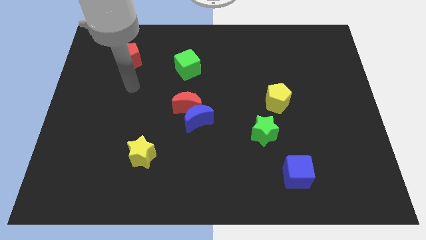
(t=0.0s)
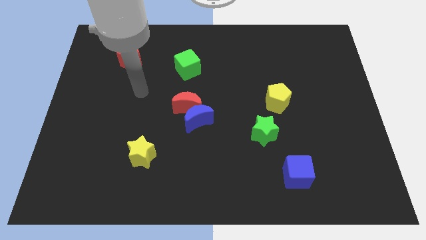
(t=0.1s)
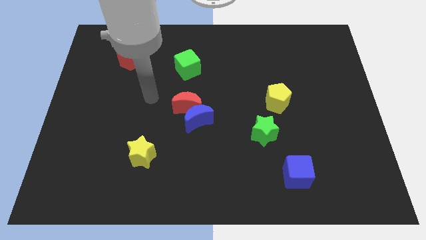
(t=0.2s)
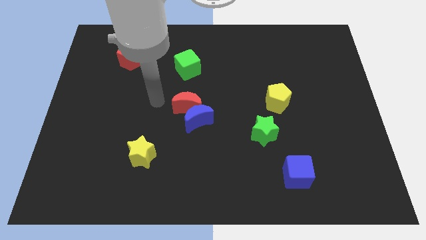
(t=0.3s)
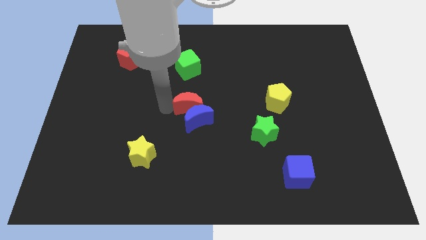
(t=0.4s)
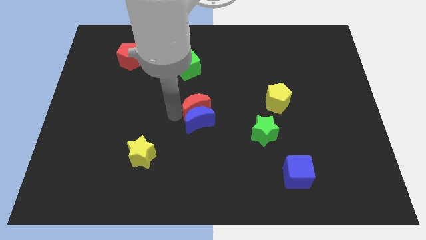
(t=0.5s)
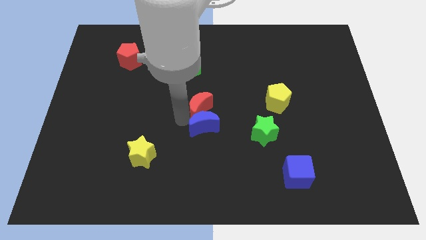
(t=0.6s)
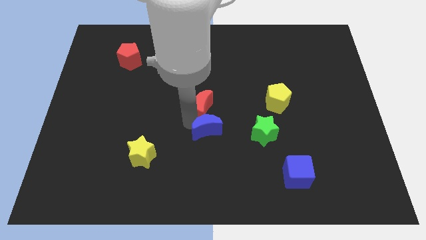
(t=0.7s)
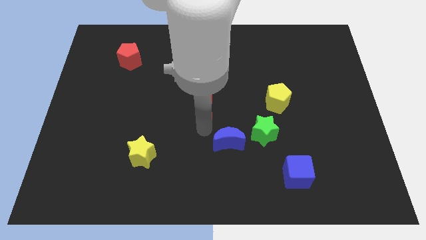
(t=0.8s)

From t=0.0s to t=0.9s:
move the red moon away from the blue moon

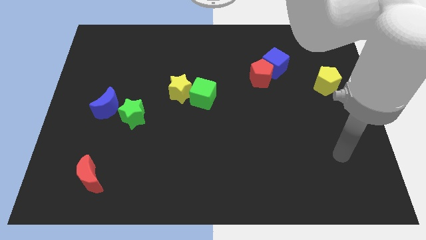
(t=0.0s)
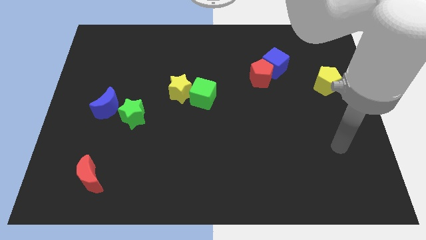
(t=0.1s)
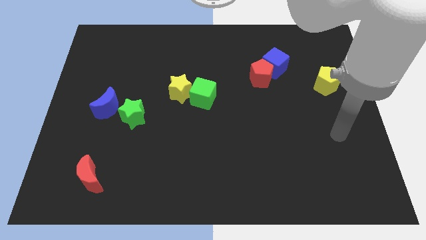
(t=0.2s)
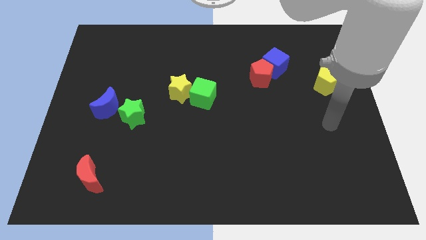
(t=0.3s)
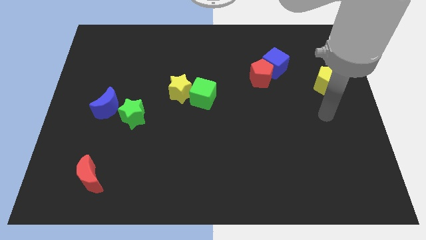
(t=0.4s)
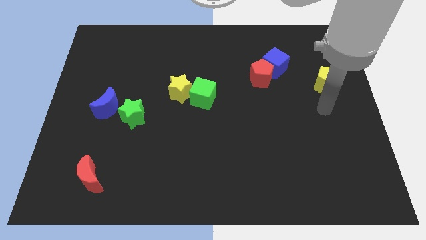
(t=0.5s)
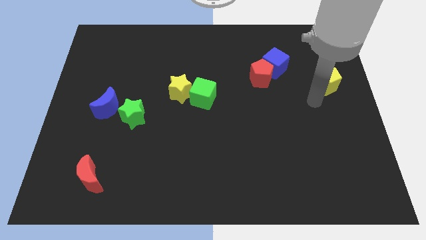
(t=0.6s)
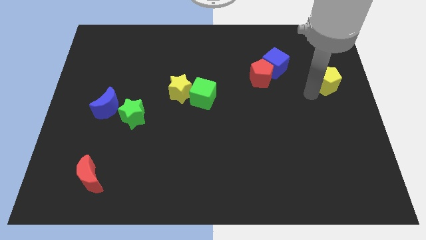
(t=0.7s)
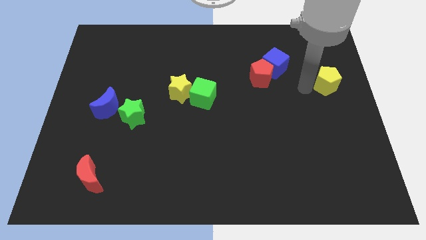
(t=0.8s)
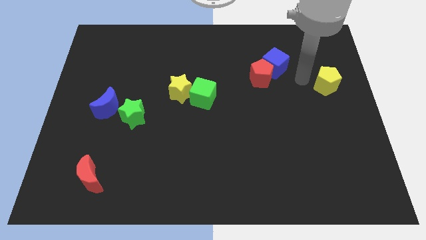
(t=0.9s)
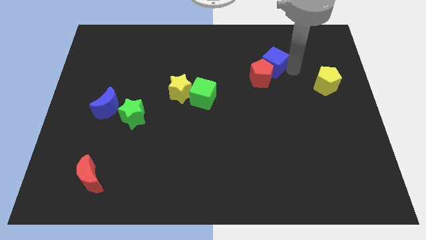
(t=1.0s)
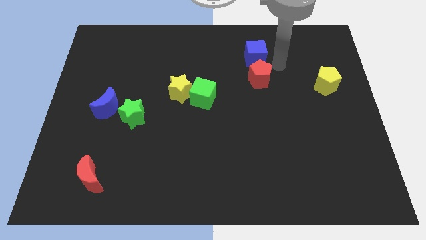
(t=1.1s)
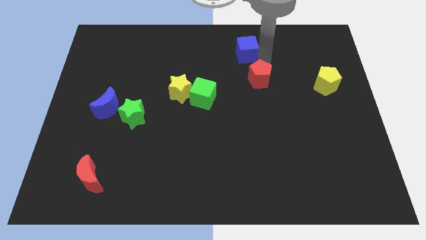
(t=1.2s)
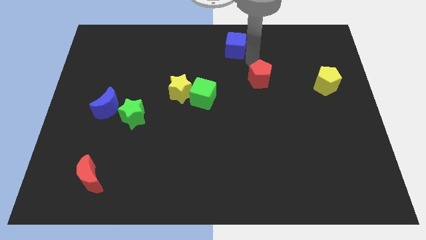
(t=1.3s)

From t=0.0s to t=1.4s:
move the red pentagon away from the blue cube

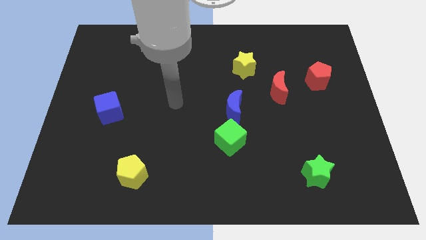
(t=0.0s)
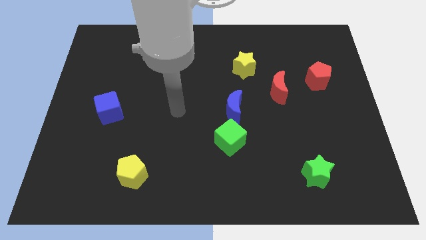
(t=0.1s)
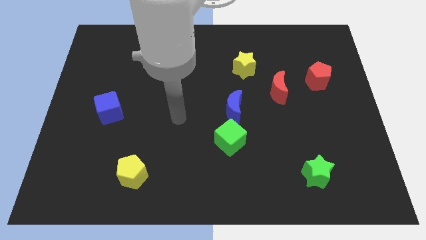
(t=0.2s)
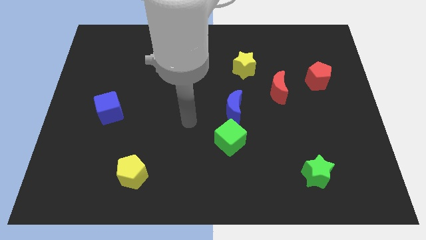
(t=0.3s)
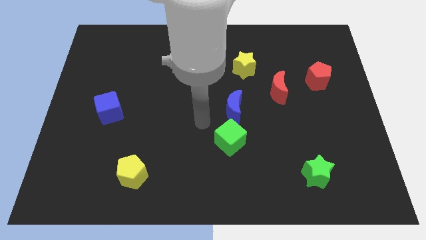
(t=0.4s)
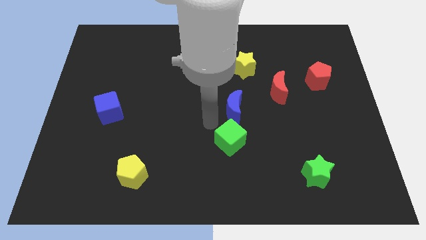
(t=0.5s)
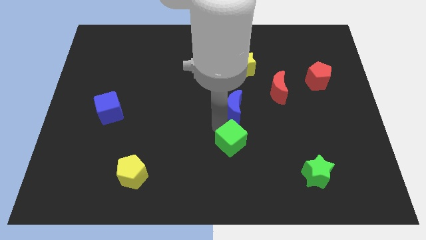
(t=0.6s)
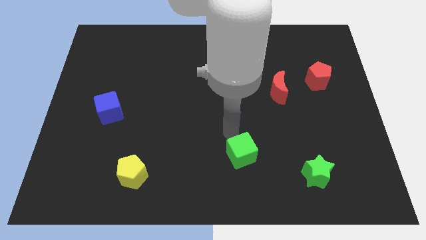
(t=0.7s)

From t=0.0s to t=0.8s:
pull the blue moon apart from the green cube

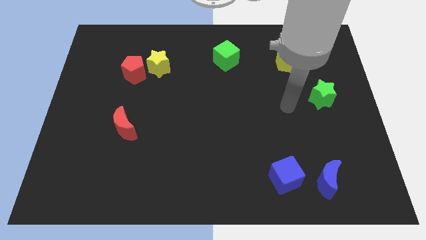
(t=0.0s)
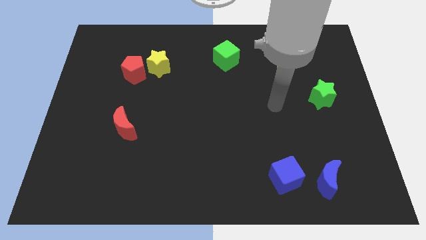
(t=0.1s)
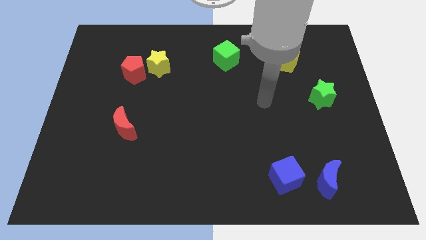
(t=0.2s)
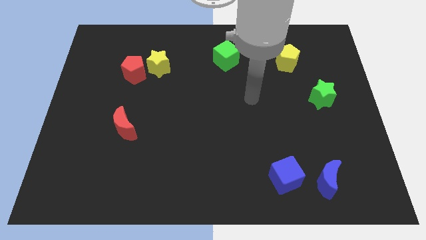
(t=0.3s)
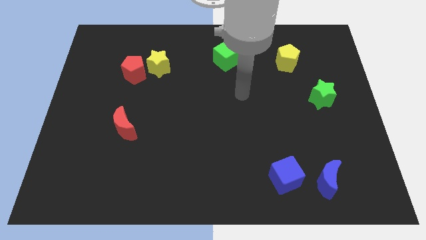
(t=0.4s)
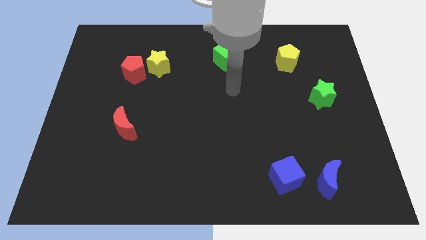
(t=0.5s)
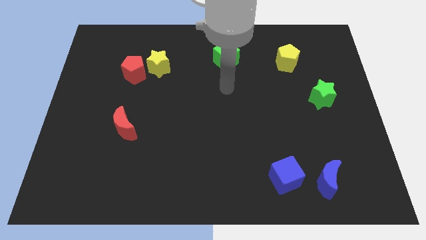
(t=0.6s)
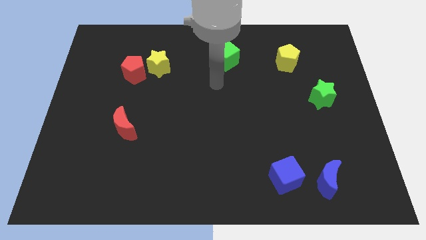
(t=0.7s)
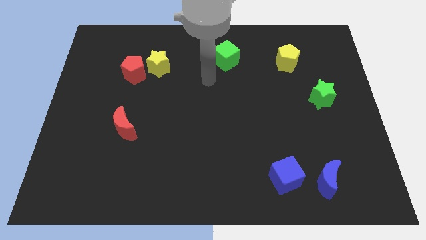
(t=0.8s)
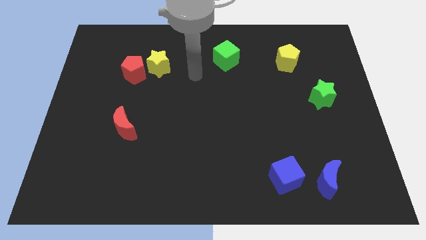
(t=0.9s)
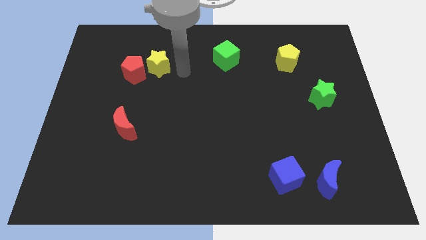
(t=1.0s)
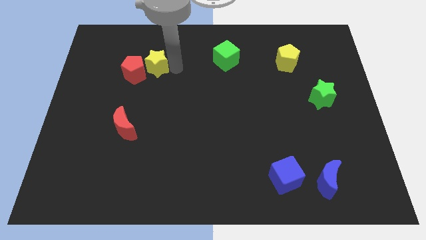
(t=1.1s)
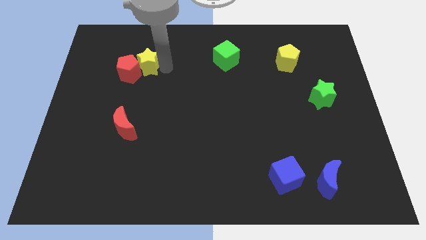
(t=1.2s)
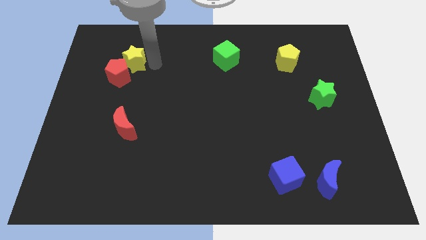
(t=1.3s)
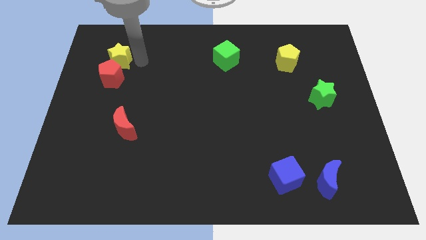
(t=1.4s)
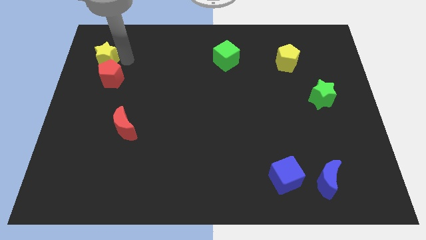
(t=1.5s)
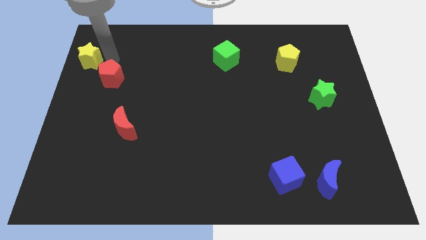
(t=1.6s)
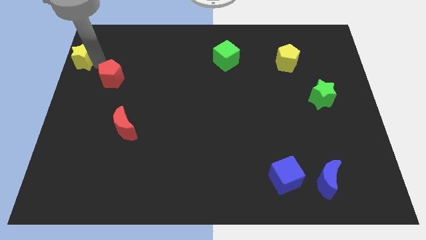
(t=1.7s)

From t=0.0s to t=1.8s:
move the red pentagon away from the yellow star

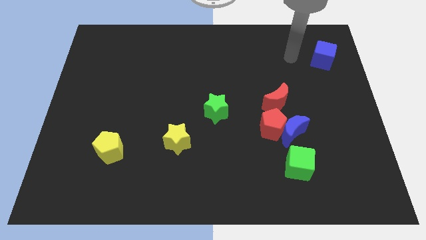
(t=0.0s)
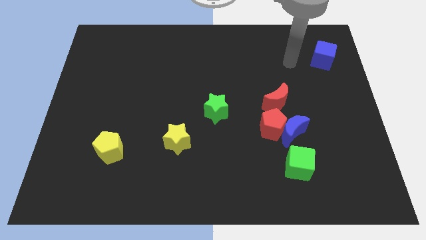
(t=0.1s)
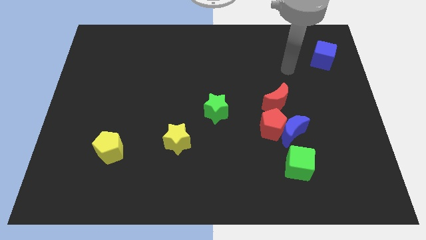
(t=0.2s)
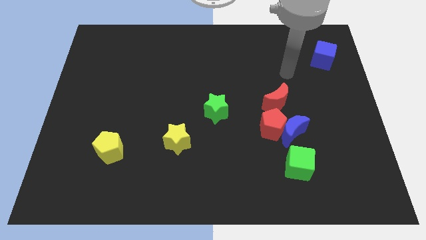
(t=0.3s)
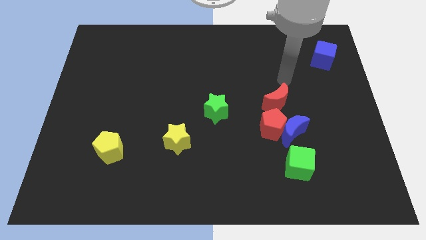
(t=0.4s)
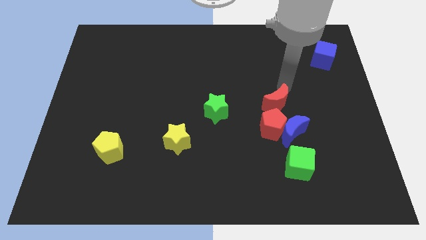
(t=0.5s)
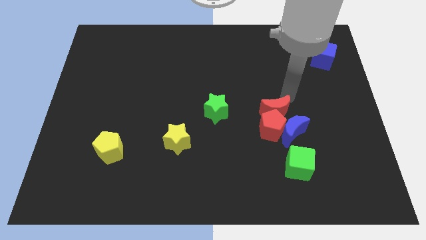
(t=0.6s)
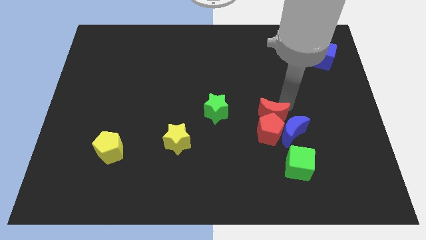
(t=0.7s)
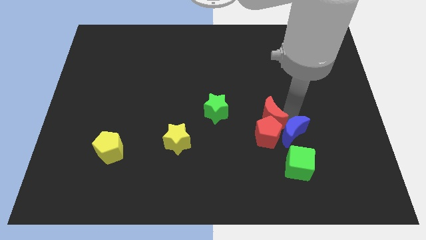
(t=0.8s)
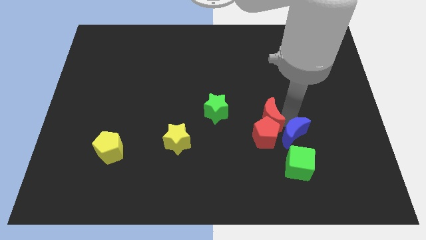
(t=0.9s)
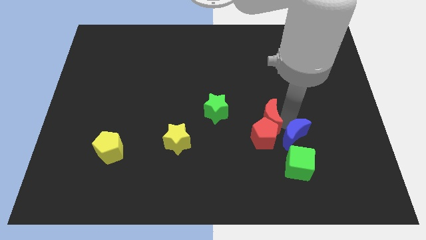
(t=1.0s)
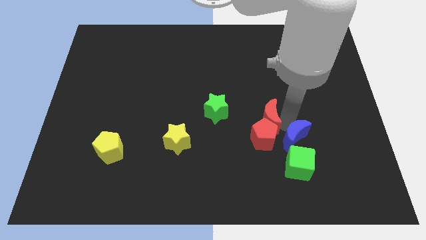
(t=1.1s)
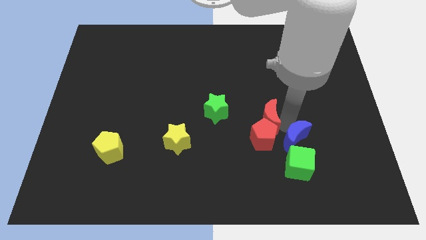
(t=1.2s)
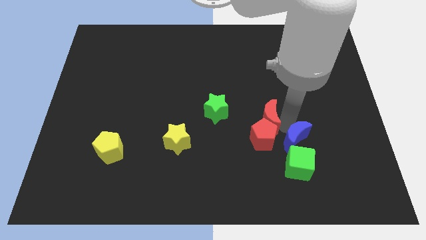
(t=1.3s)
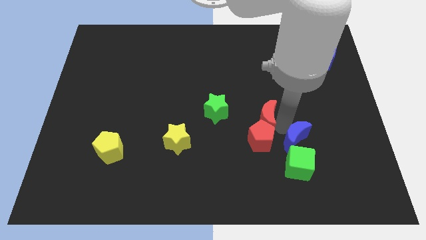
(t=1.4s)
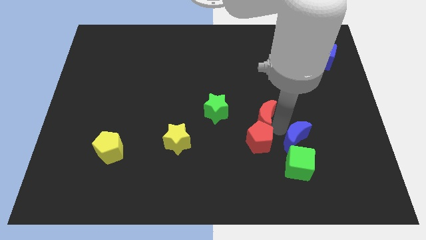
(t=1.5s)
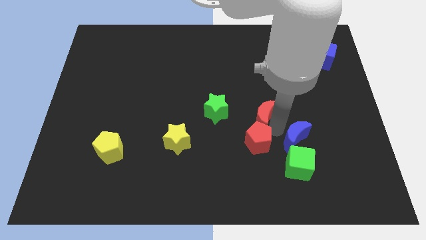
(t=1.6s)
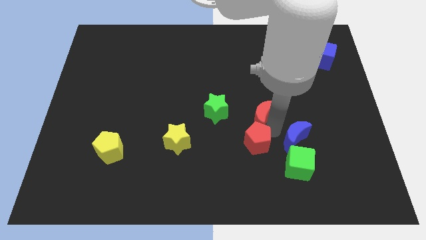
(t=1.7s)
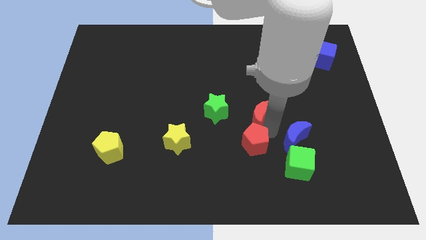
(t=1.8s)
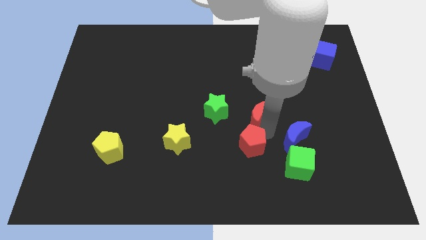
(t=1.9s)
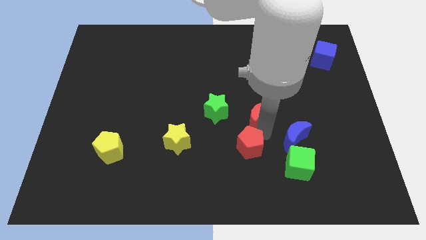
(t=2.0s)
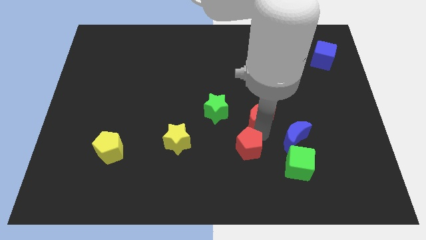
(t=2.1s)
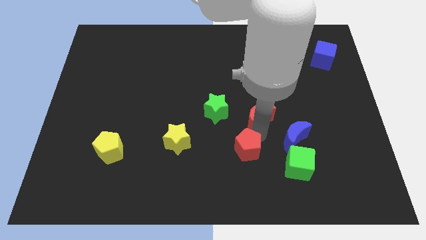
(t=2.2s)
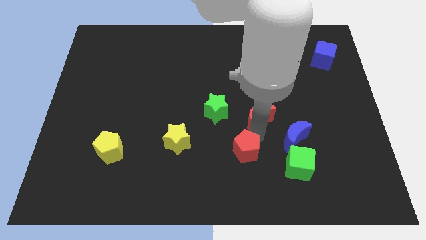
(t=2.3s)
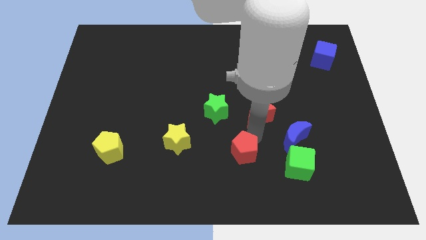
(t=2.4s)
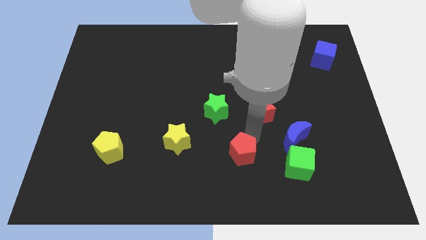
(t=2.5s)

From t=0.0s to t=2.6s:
separate the red pentagon from the blue moon and red moon

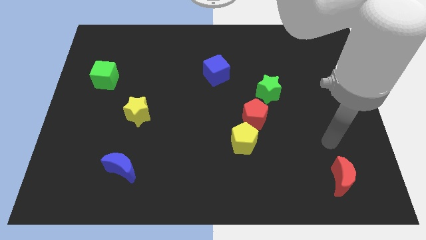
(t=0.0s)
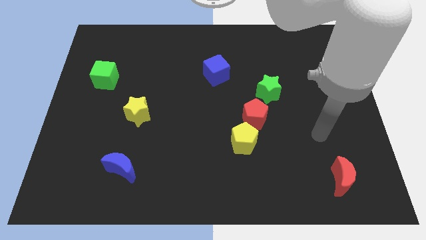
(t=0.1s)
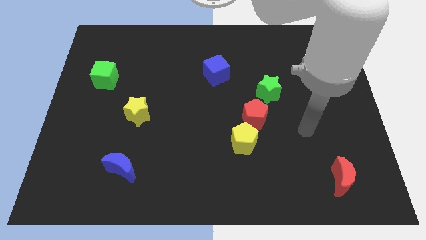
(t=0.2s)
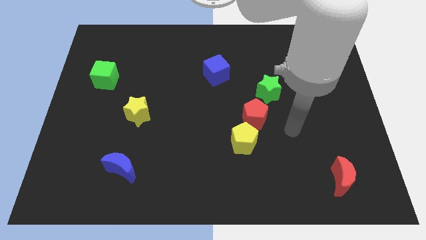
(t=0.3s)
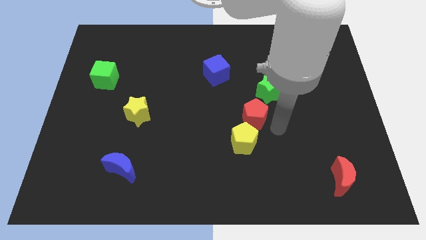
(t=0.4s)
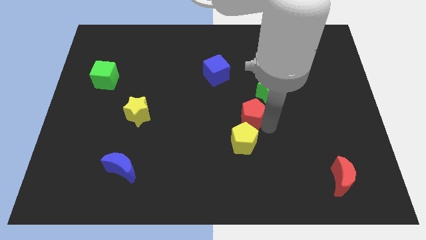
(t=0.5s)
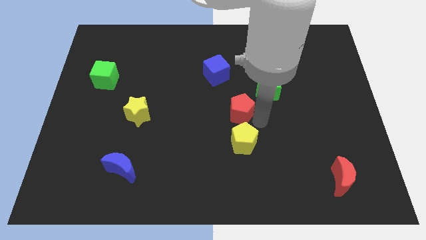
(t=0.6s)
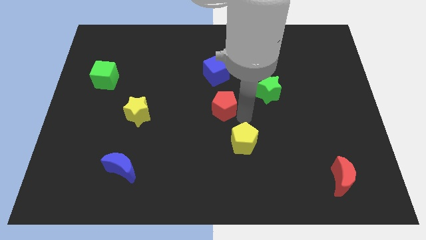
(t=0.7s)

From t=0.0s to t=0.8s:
separate the yellow pentagon from the red pentagon

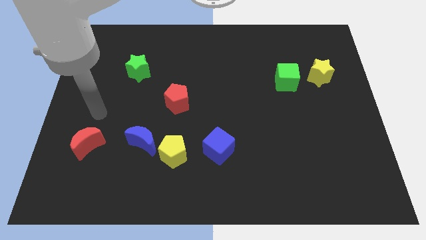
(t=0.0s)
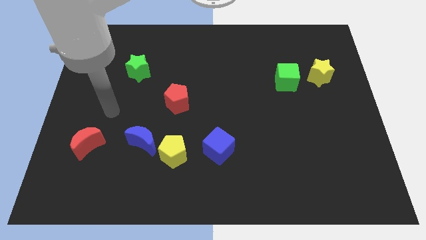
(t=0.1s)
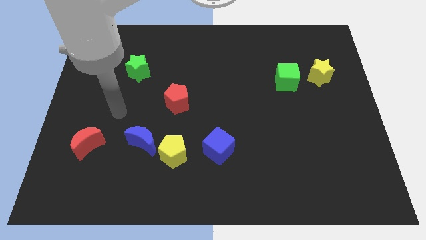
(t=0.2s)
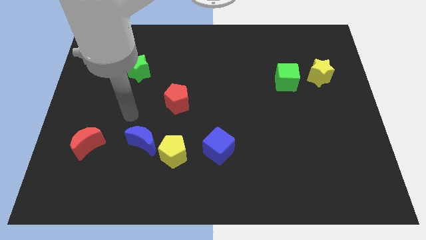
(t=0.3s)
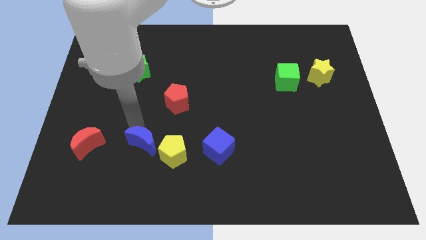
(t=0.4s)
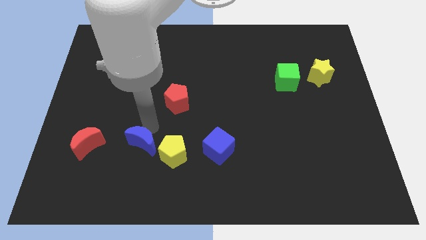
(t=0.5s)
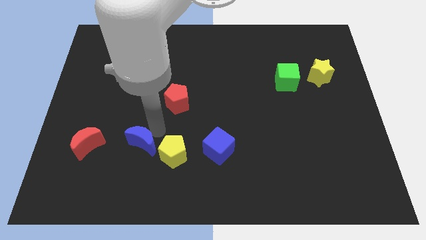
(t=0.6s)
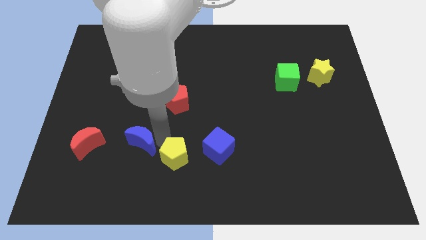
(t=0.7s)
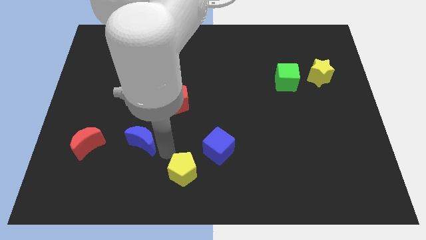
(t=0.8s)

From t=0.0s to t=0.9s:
separate the blue moon from the yellow pentagon

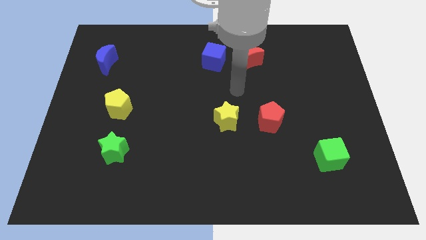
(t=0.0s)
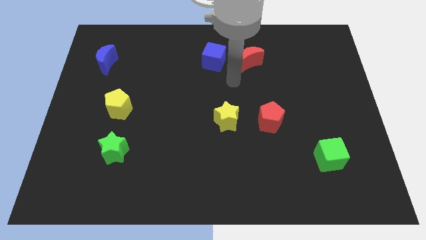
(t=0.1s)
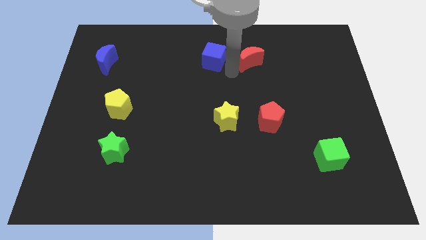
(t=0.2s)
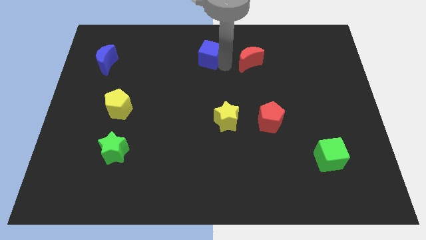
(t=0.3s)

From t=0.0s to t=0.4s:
pull the red moon apart from the blue cube
